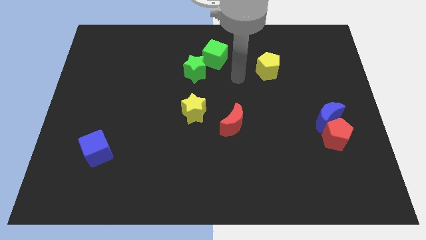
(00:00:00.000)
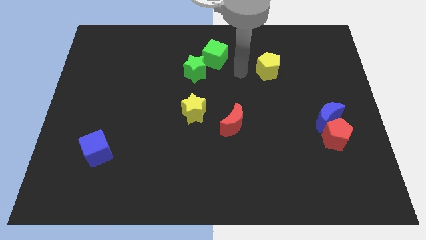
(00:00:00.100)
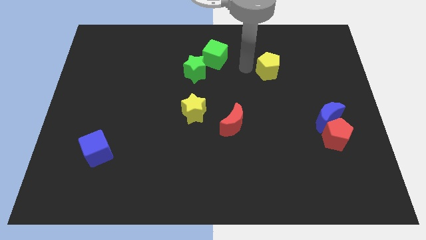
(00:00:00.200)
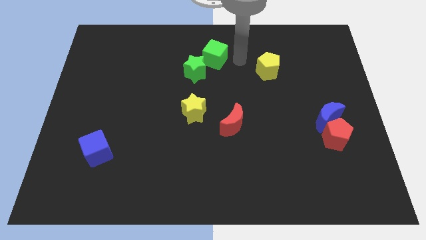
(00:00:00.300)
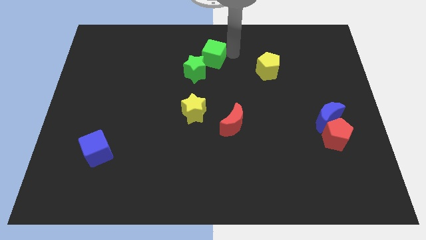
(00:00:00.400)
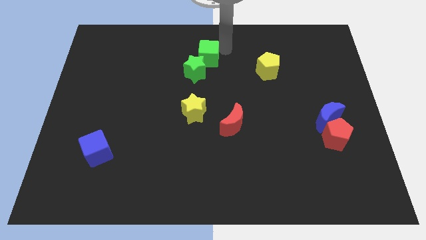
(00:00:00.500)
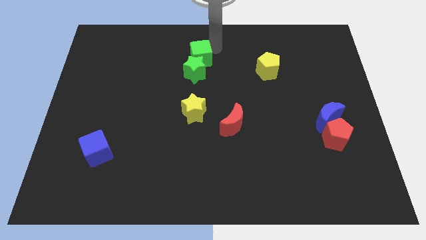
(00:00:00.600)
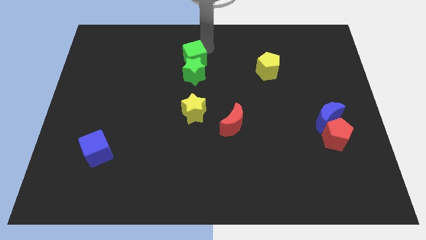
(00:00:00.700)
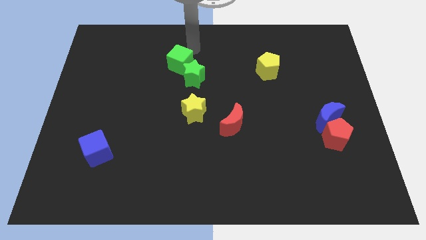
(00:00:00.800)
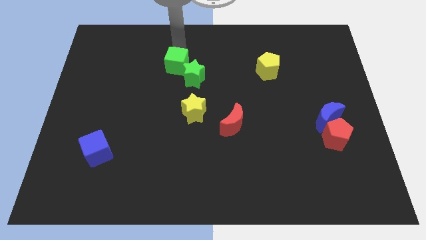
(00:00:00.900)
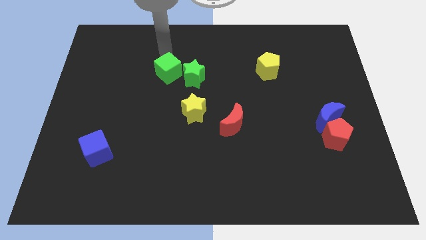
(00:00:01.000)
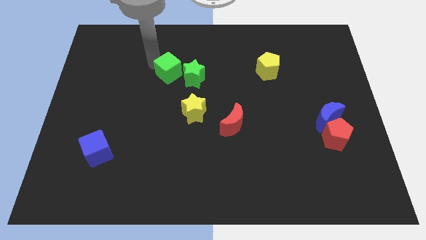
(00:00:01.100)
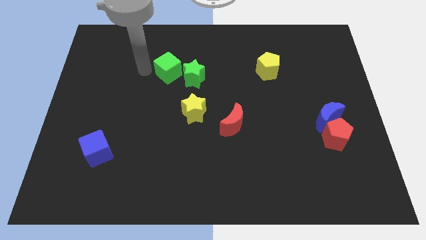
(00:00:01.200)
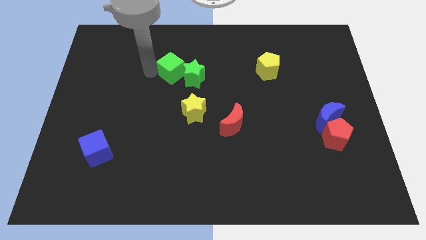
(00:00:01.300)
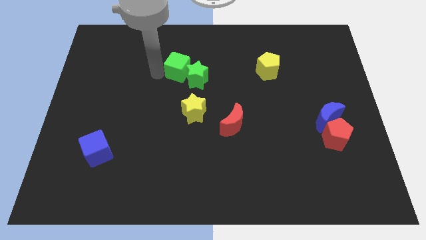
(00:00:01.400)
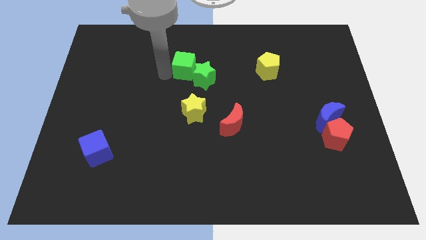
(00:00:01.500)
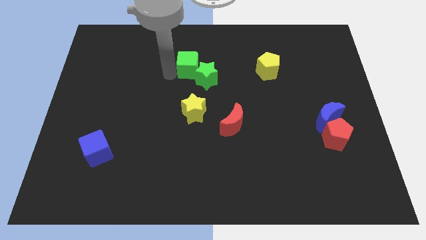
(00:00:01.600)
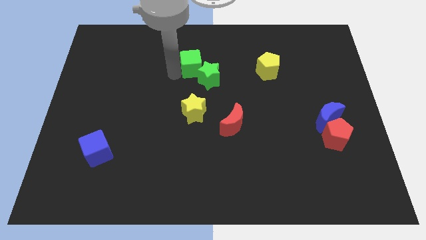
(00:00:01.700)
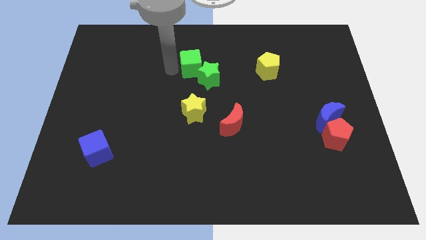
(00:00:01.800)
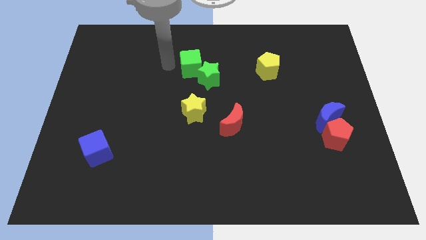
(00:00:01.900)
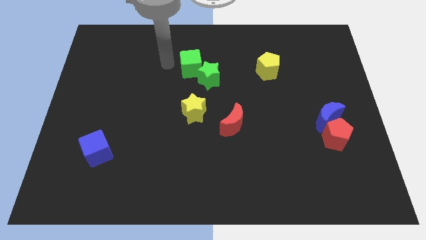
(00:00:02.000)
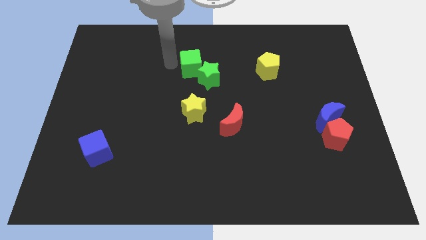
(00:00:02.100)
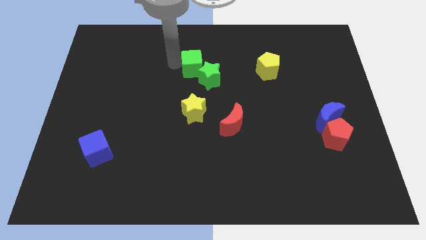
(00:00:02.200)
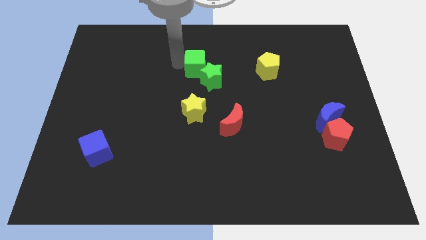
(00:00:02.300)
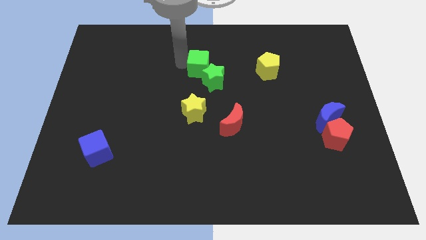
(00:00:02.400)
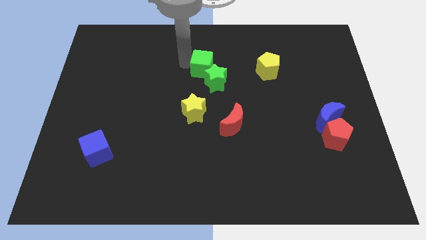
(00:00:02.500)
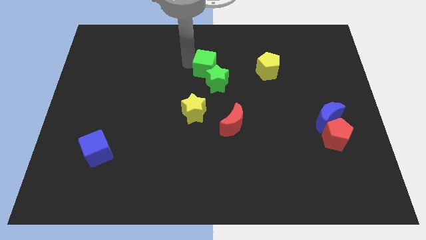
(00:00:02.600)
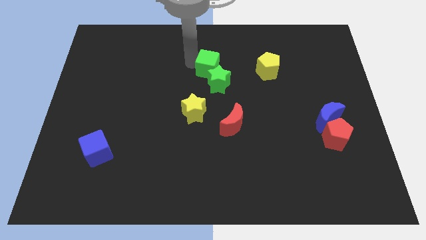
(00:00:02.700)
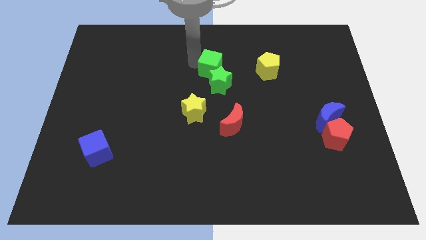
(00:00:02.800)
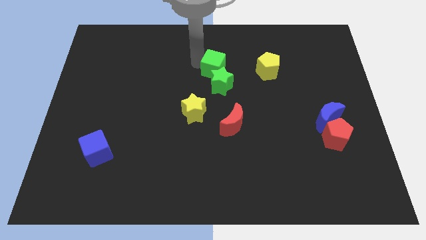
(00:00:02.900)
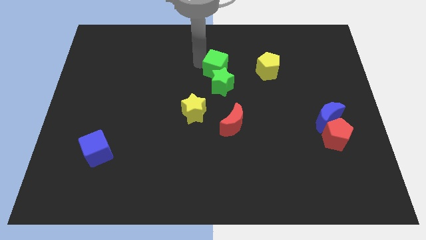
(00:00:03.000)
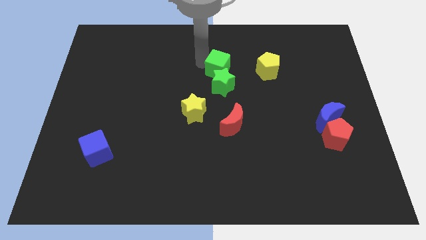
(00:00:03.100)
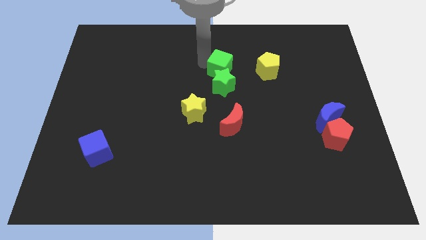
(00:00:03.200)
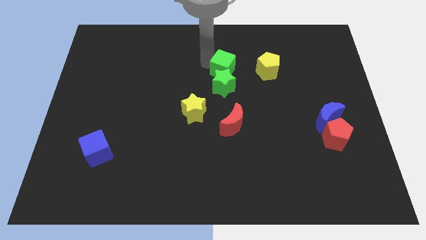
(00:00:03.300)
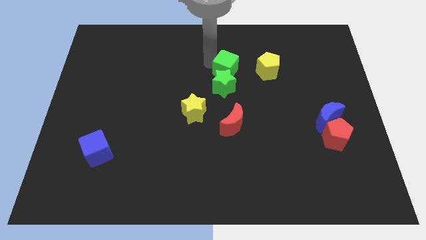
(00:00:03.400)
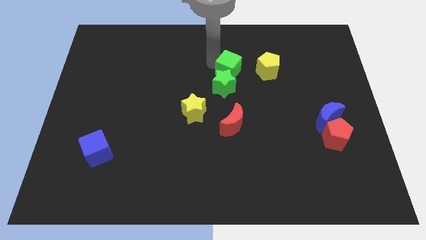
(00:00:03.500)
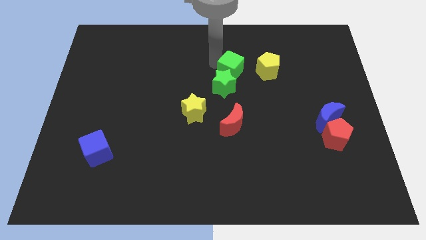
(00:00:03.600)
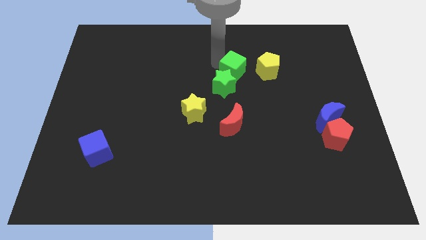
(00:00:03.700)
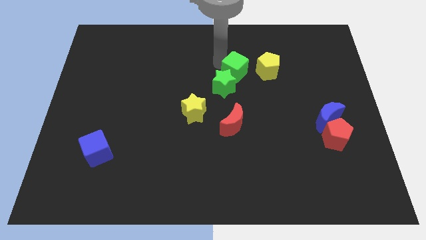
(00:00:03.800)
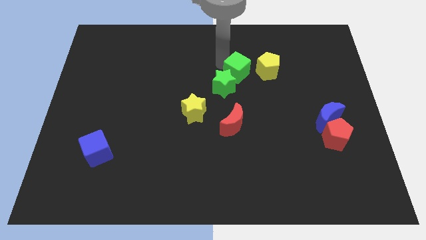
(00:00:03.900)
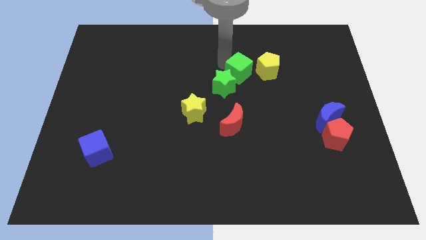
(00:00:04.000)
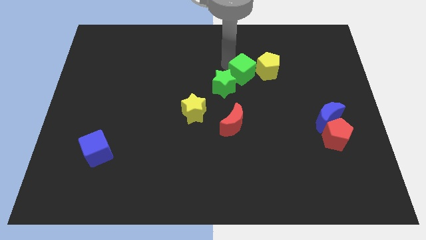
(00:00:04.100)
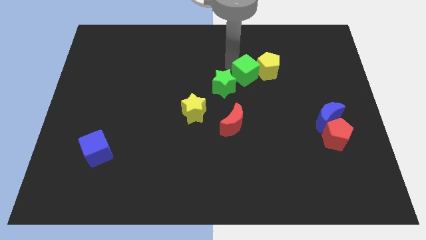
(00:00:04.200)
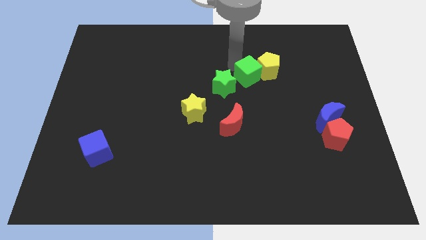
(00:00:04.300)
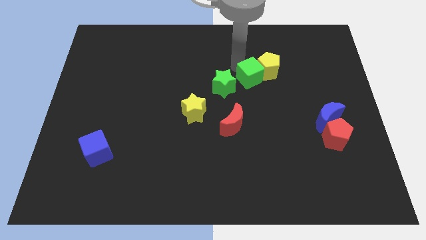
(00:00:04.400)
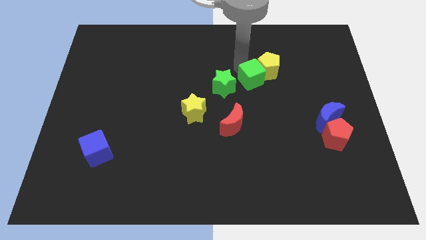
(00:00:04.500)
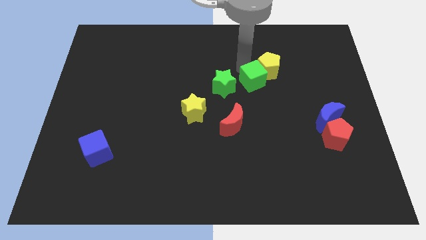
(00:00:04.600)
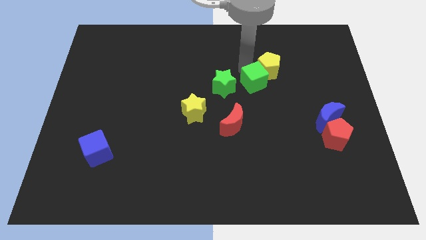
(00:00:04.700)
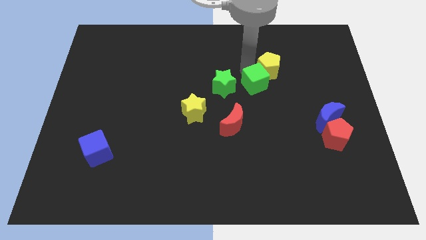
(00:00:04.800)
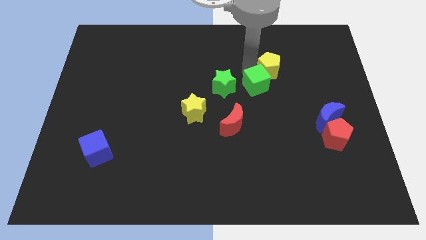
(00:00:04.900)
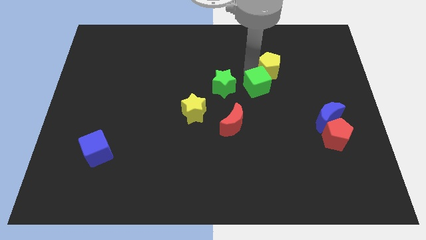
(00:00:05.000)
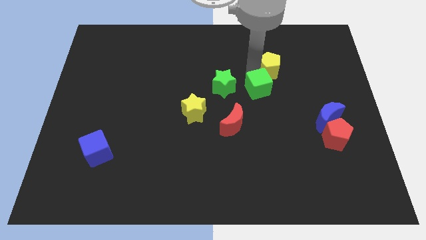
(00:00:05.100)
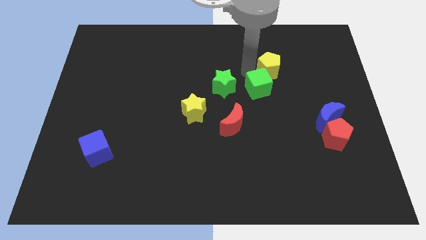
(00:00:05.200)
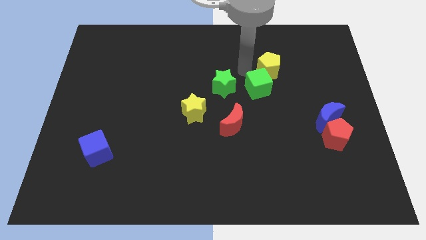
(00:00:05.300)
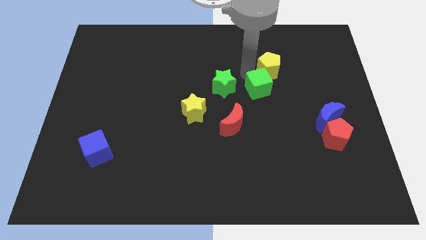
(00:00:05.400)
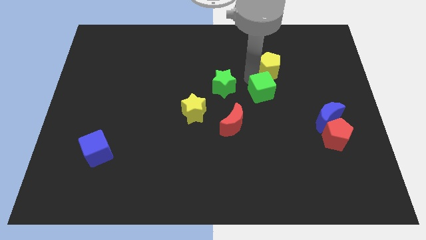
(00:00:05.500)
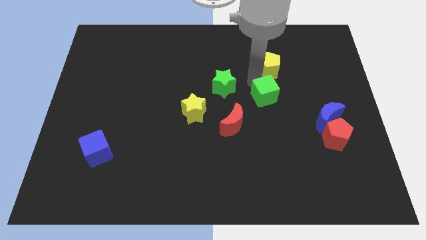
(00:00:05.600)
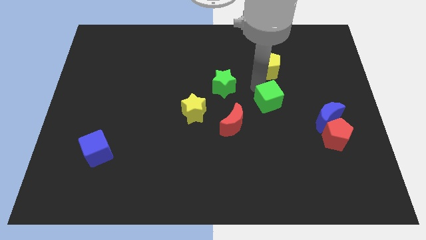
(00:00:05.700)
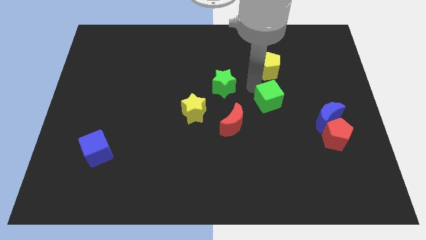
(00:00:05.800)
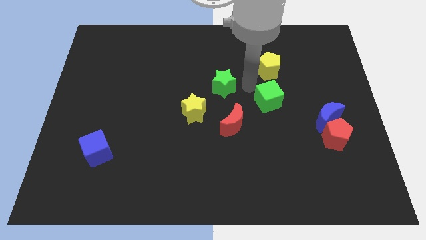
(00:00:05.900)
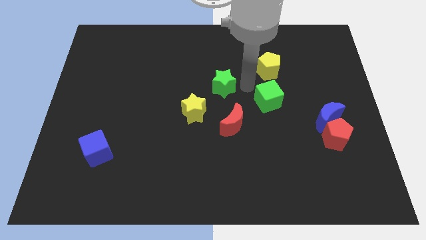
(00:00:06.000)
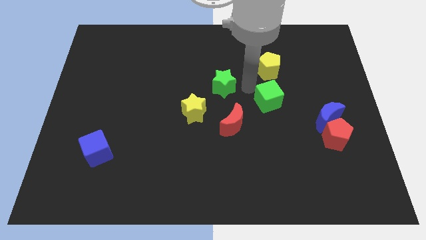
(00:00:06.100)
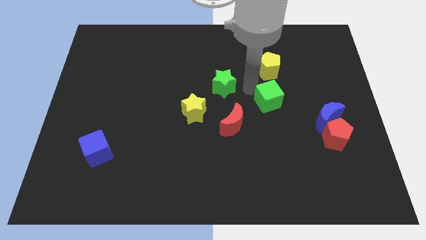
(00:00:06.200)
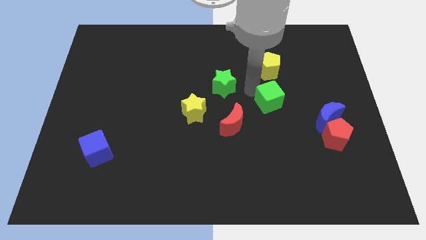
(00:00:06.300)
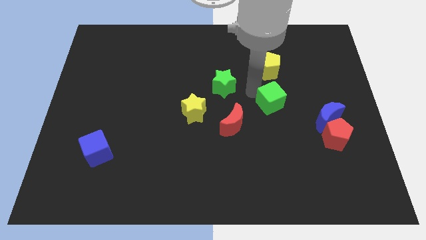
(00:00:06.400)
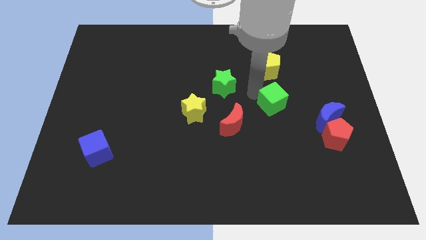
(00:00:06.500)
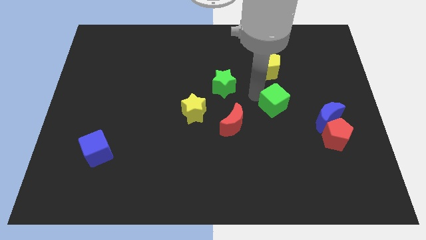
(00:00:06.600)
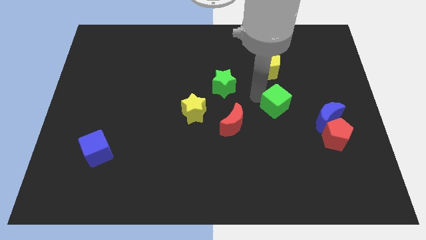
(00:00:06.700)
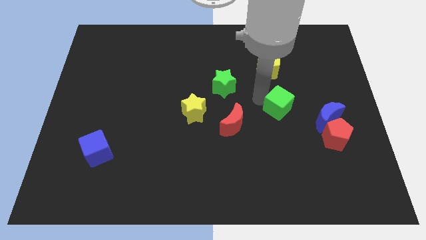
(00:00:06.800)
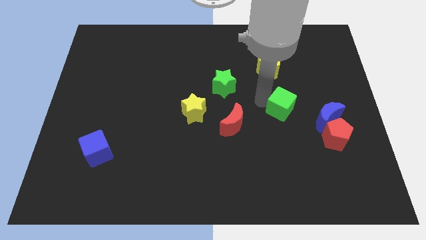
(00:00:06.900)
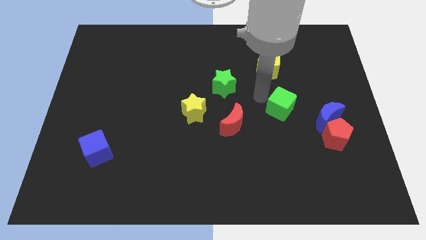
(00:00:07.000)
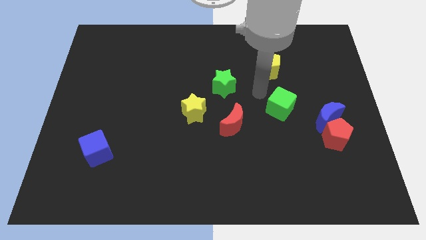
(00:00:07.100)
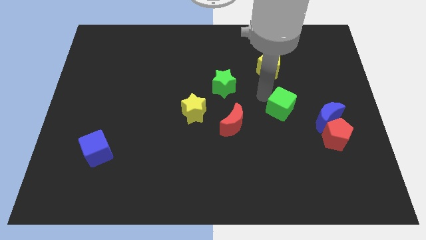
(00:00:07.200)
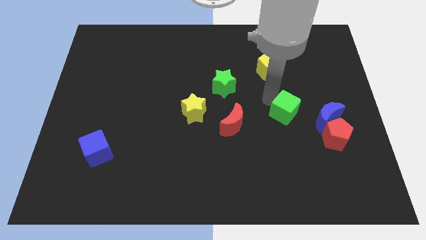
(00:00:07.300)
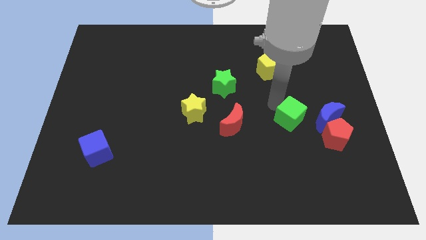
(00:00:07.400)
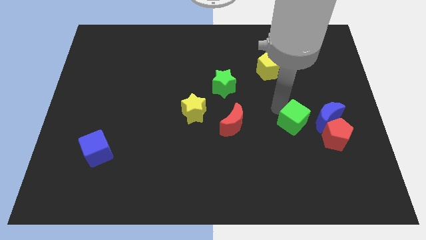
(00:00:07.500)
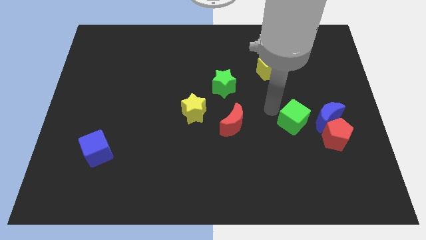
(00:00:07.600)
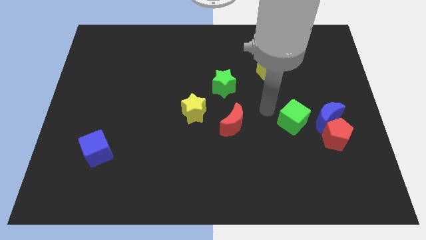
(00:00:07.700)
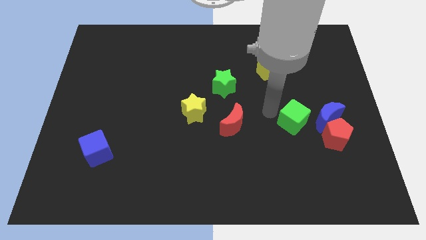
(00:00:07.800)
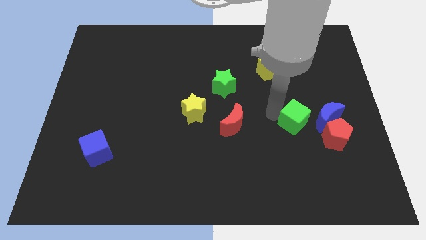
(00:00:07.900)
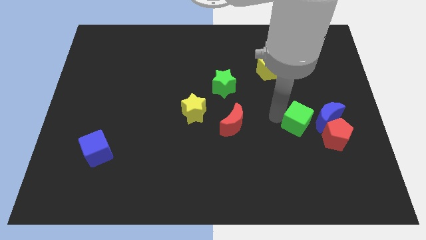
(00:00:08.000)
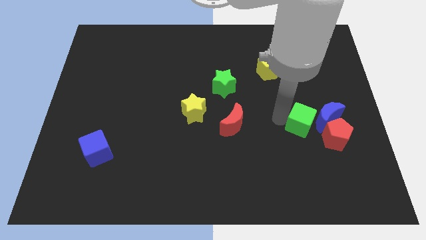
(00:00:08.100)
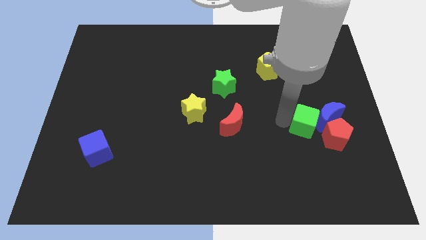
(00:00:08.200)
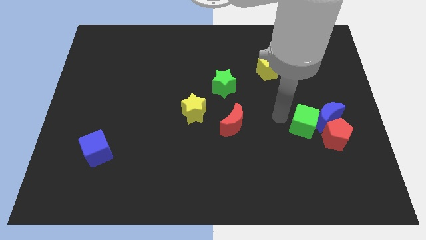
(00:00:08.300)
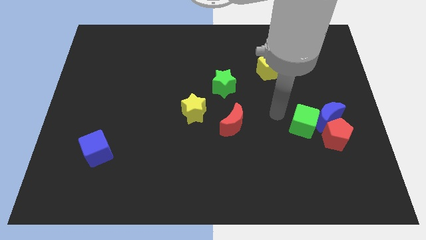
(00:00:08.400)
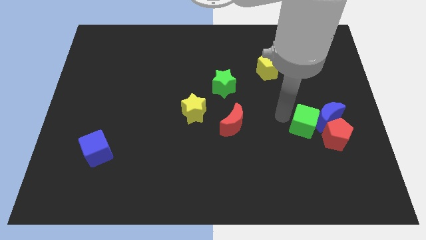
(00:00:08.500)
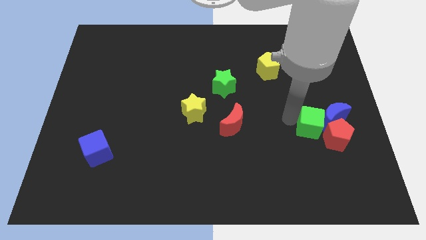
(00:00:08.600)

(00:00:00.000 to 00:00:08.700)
push the green cube to the red pentagon
